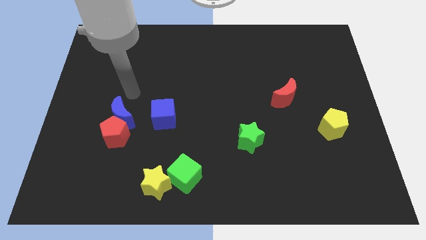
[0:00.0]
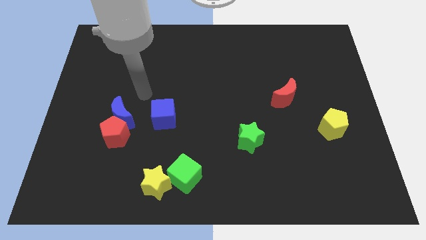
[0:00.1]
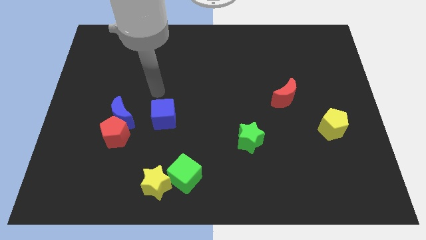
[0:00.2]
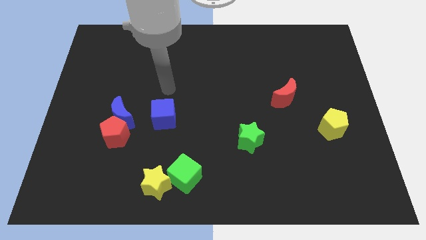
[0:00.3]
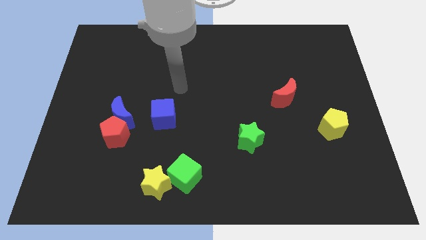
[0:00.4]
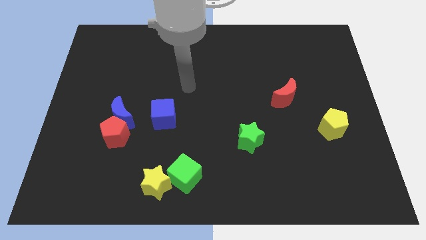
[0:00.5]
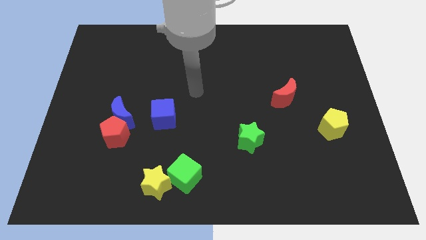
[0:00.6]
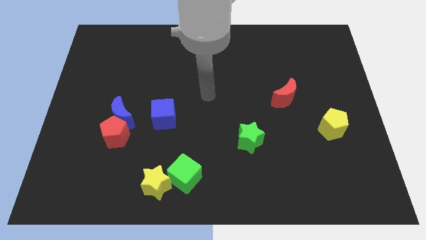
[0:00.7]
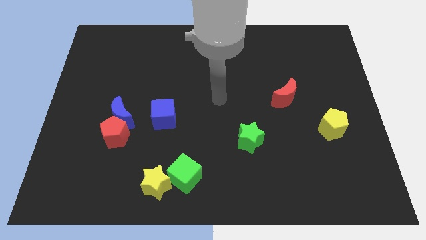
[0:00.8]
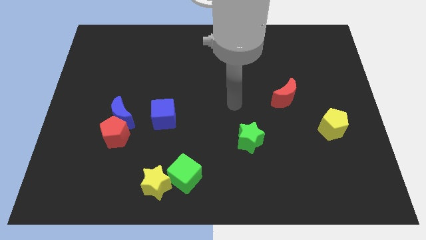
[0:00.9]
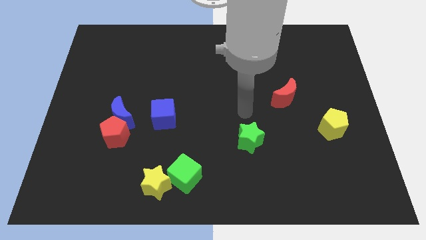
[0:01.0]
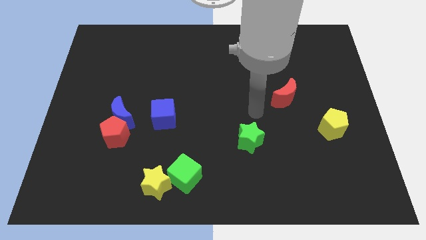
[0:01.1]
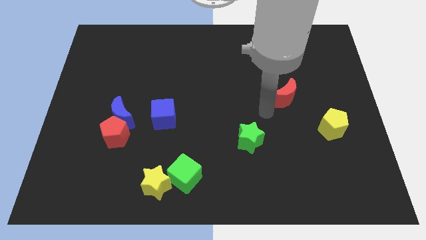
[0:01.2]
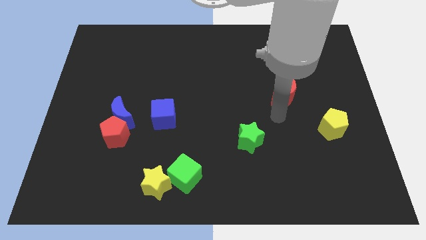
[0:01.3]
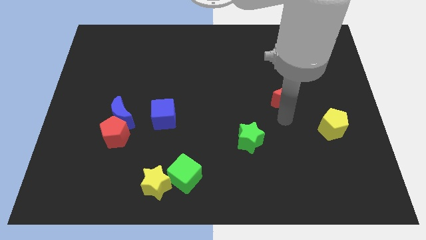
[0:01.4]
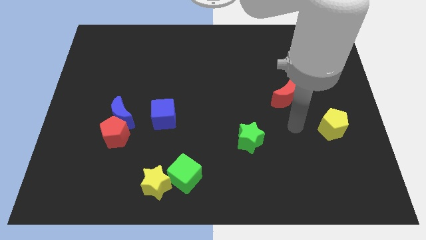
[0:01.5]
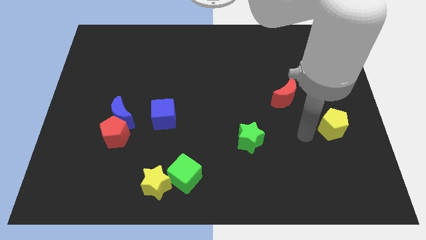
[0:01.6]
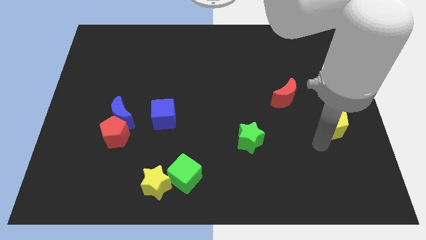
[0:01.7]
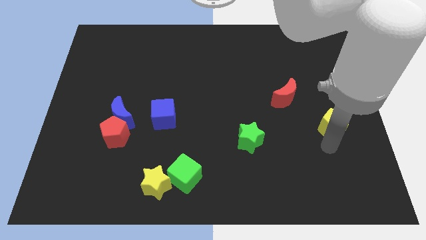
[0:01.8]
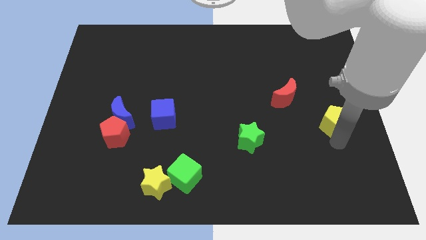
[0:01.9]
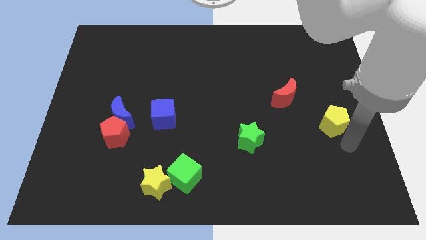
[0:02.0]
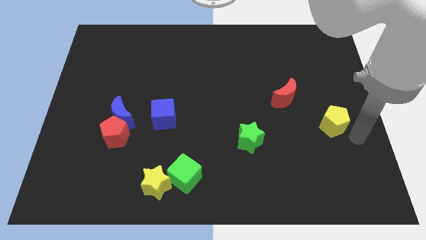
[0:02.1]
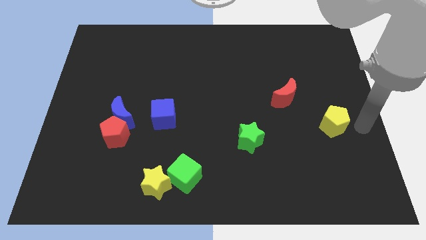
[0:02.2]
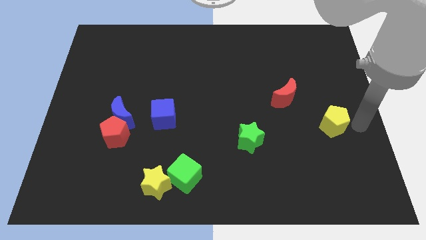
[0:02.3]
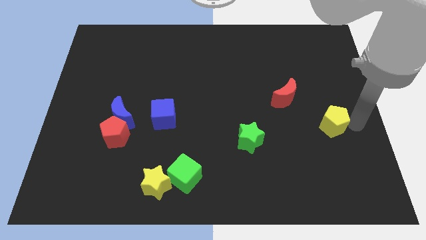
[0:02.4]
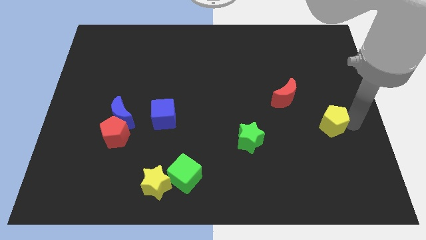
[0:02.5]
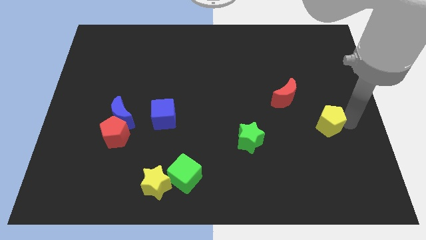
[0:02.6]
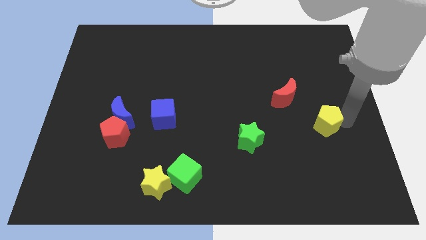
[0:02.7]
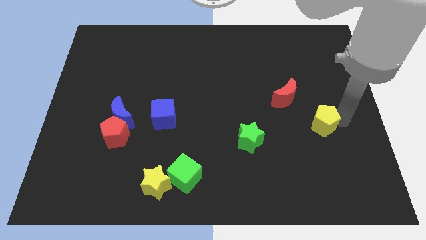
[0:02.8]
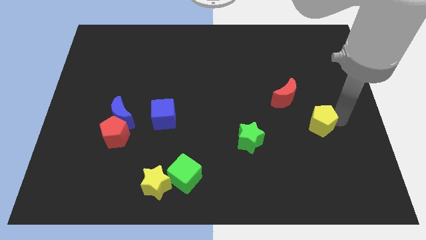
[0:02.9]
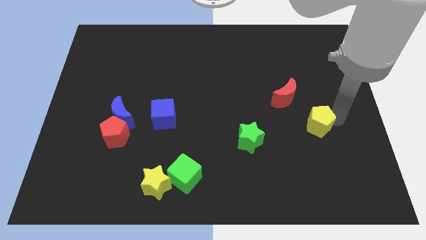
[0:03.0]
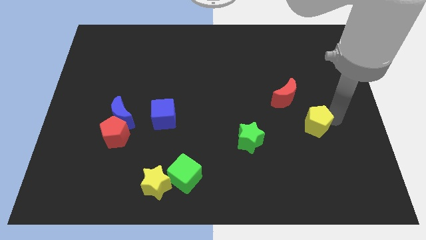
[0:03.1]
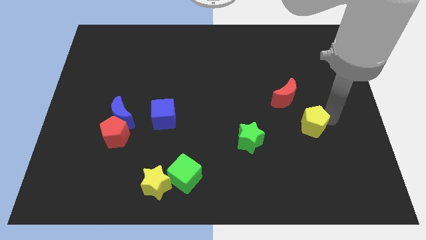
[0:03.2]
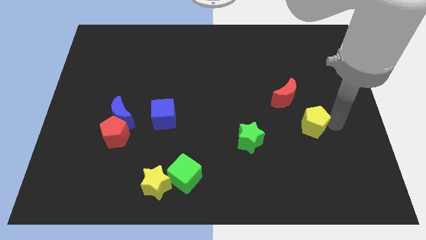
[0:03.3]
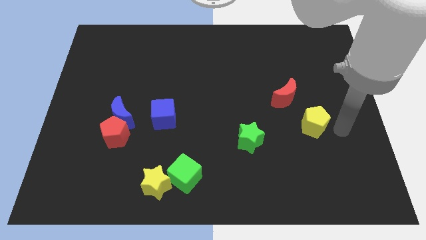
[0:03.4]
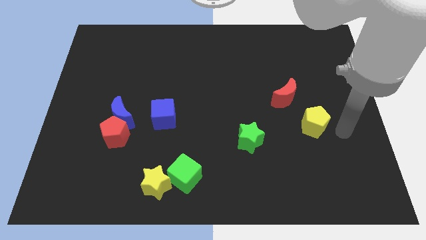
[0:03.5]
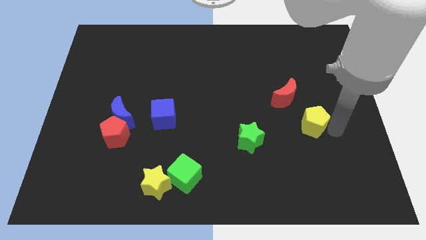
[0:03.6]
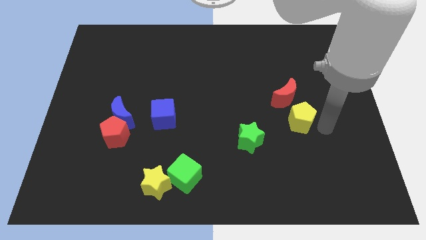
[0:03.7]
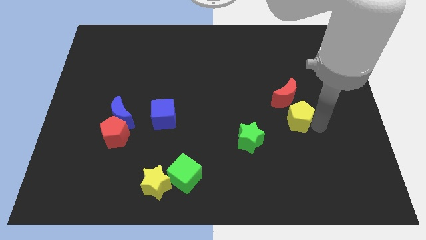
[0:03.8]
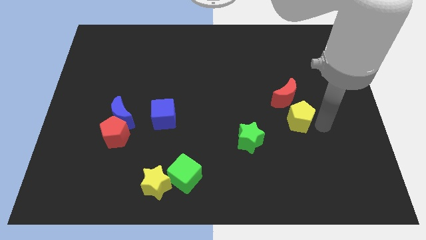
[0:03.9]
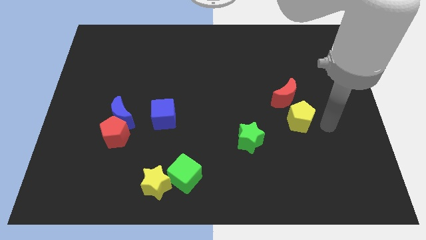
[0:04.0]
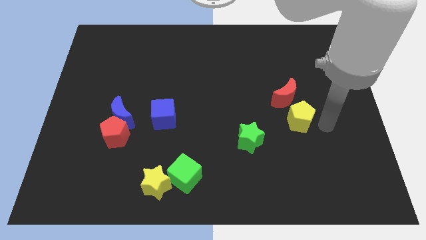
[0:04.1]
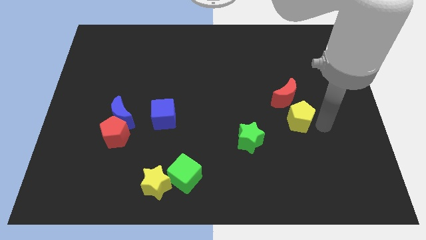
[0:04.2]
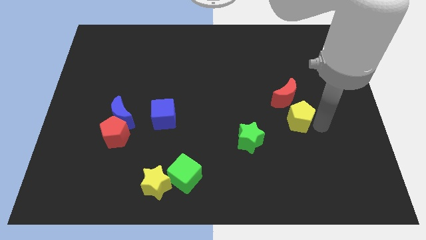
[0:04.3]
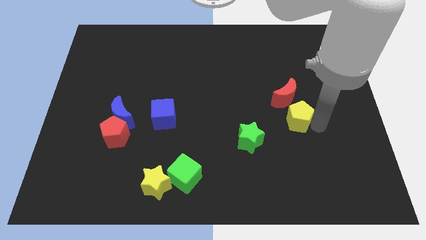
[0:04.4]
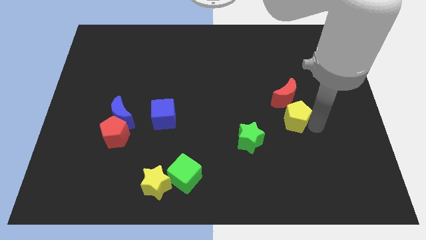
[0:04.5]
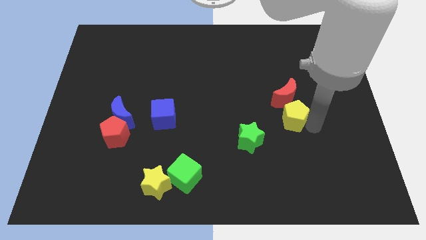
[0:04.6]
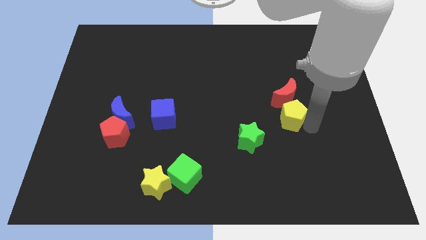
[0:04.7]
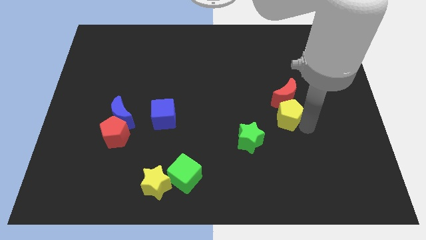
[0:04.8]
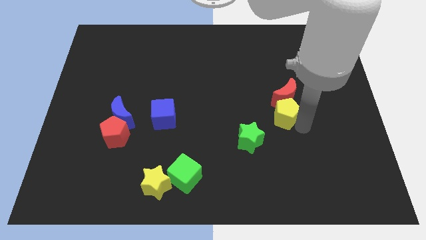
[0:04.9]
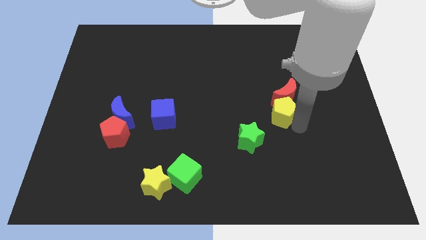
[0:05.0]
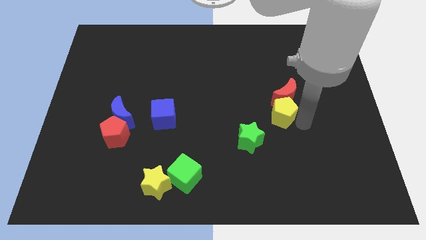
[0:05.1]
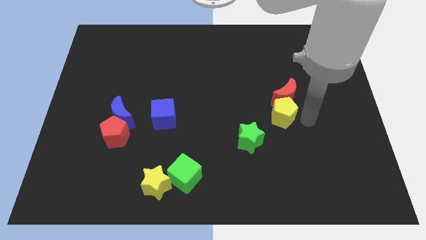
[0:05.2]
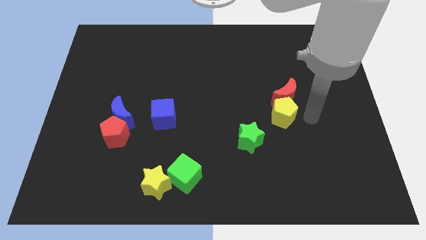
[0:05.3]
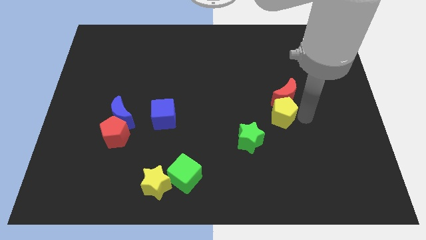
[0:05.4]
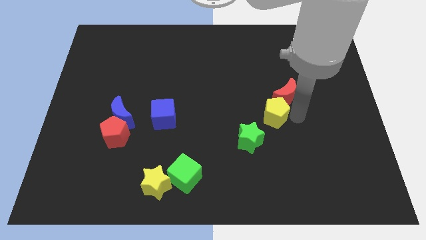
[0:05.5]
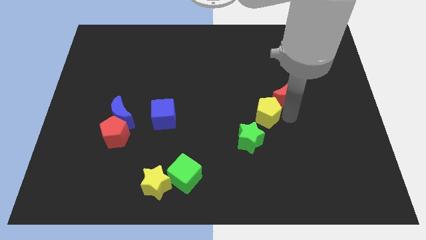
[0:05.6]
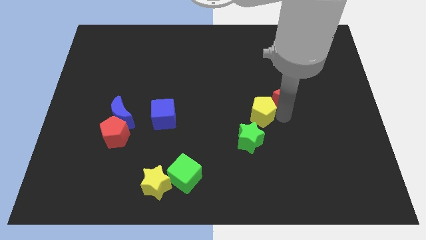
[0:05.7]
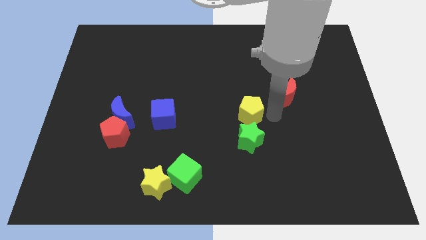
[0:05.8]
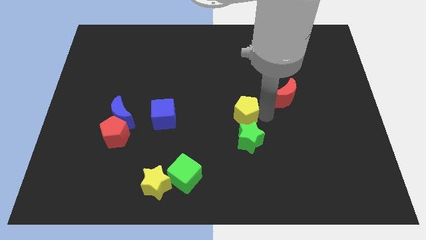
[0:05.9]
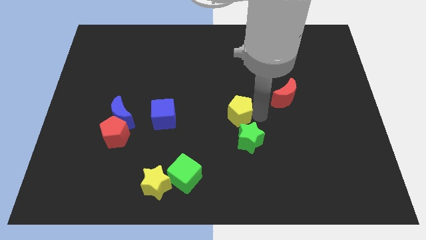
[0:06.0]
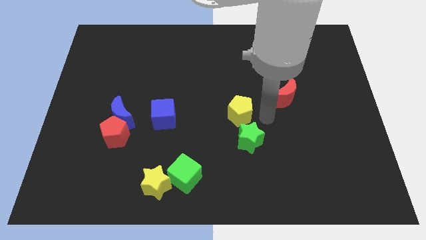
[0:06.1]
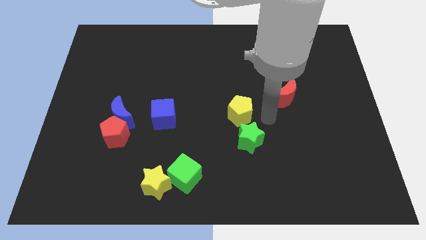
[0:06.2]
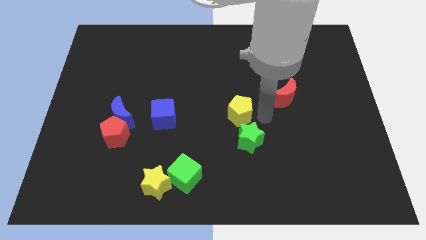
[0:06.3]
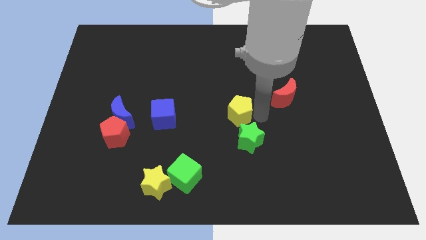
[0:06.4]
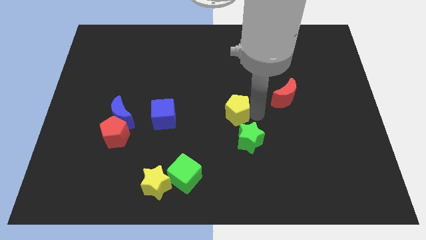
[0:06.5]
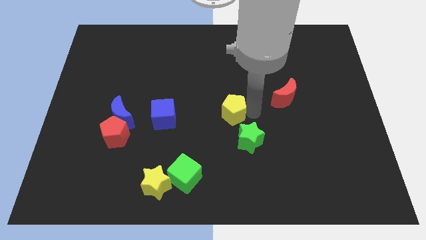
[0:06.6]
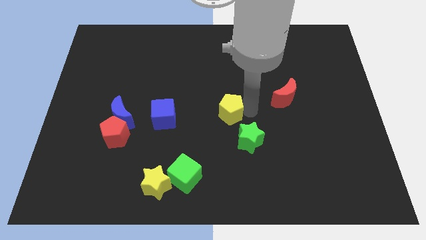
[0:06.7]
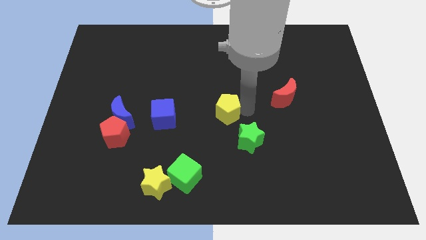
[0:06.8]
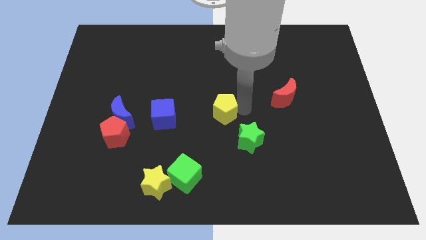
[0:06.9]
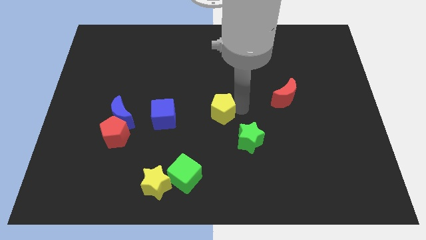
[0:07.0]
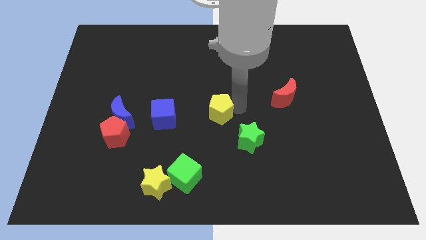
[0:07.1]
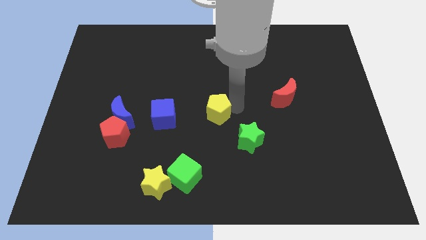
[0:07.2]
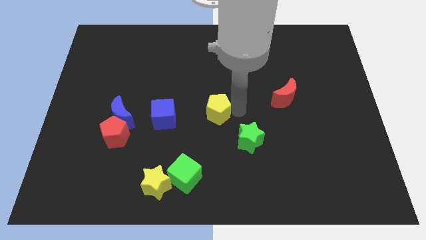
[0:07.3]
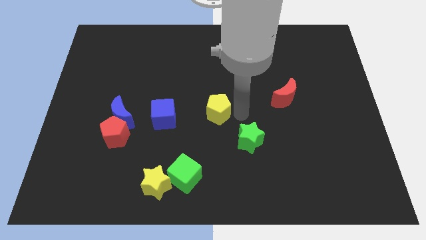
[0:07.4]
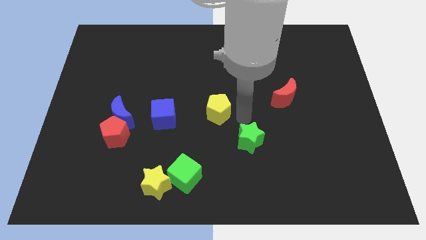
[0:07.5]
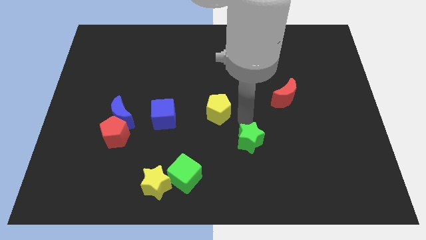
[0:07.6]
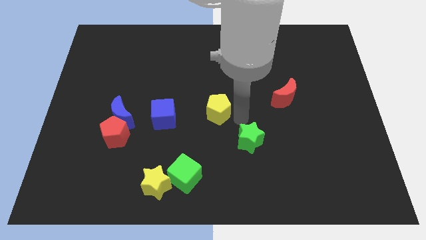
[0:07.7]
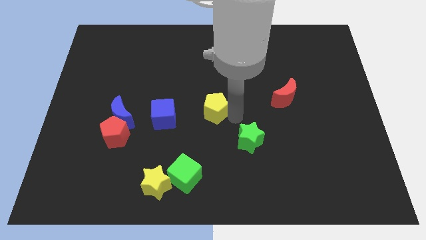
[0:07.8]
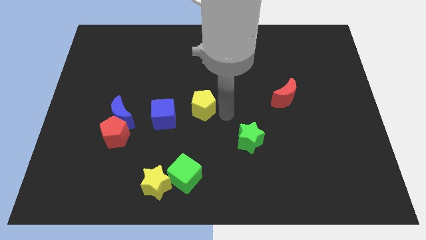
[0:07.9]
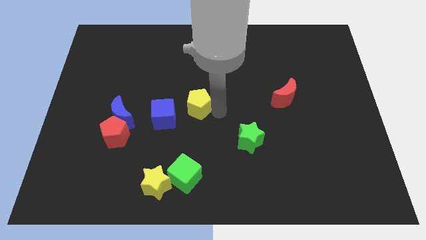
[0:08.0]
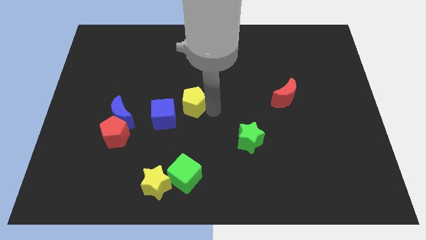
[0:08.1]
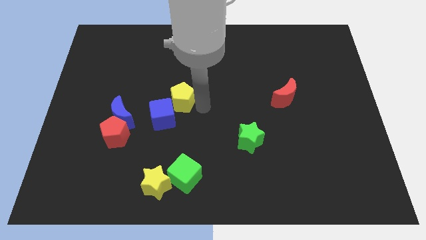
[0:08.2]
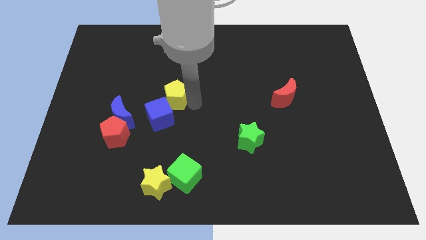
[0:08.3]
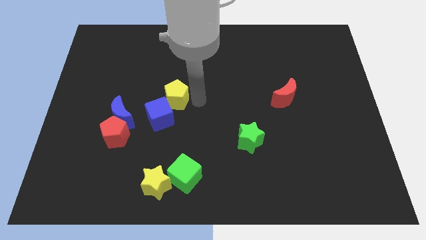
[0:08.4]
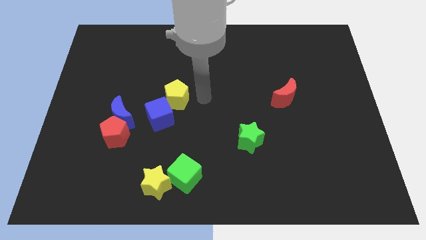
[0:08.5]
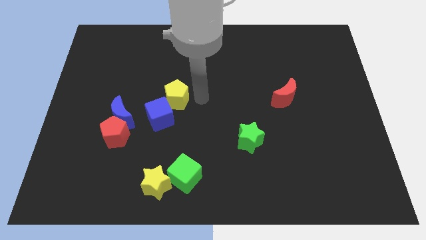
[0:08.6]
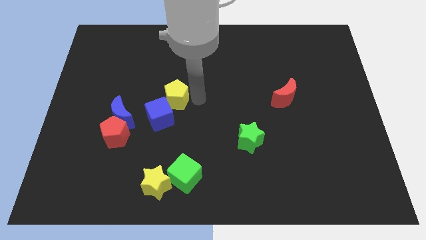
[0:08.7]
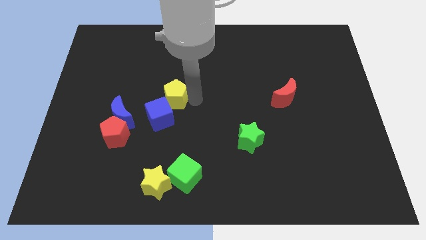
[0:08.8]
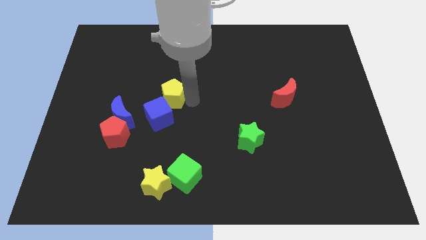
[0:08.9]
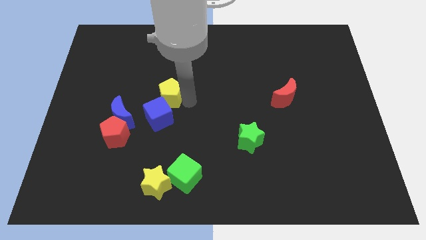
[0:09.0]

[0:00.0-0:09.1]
put the yellow pentagon to the top right side of the blue moon
